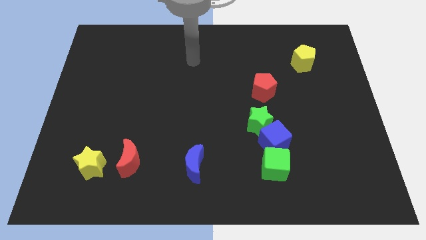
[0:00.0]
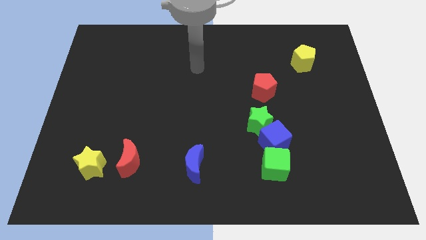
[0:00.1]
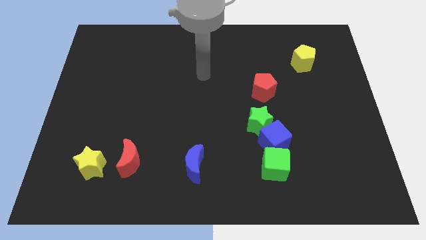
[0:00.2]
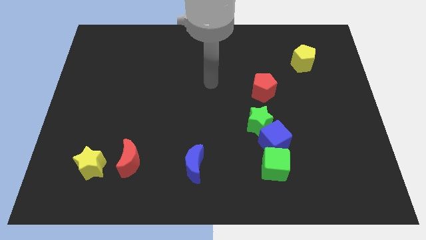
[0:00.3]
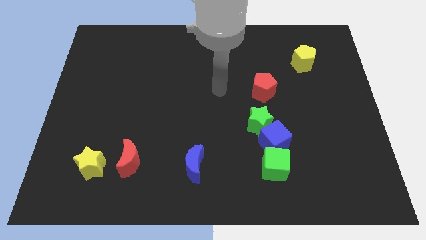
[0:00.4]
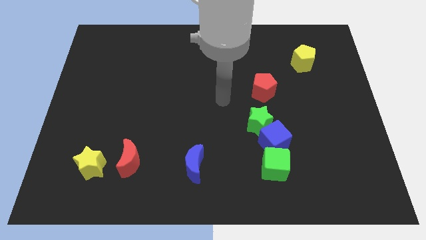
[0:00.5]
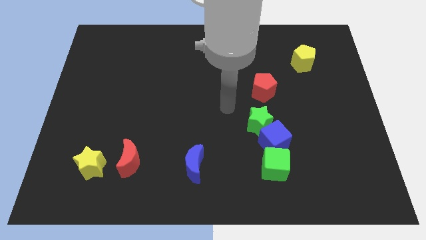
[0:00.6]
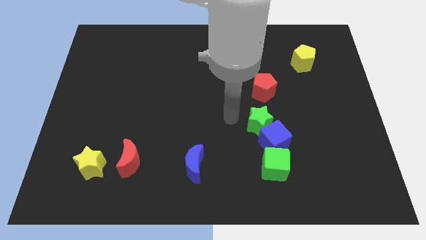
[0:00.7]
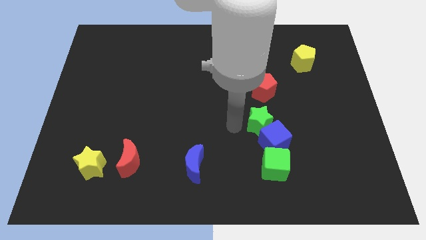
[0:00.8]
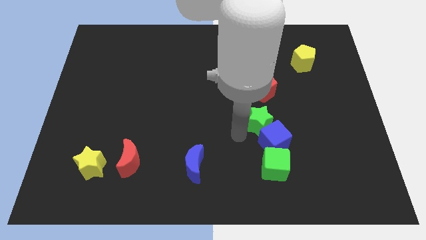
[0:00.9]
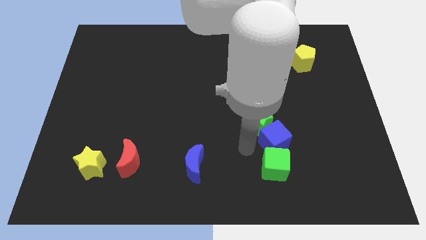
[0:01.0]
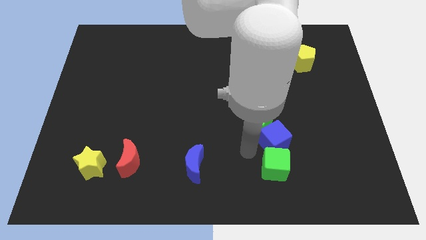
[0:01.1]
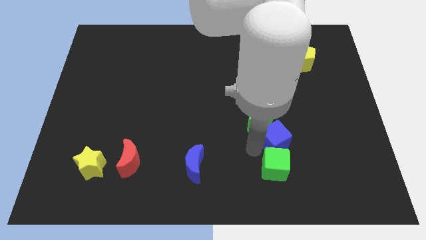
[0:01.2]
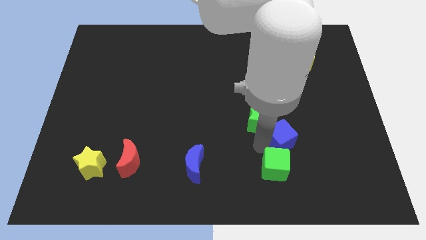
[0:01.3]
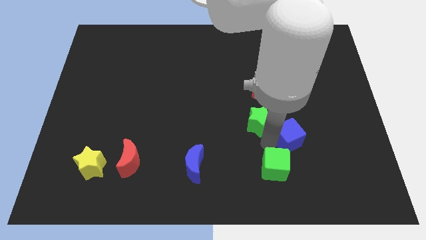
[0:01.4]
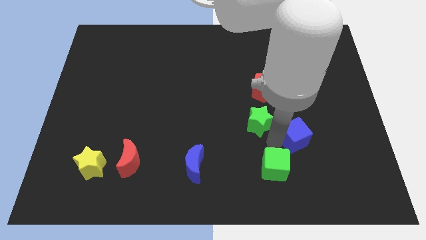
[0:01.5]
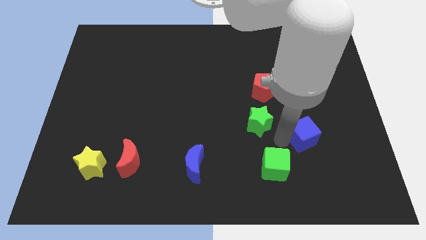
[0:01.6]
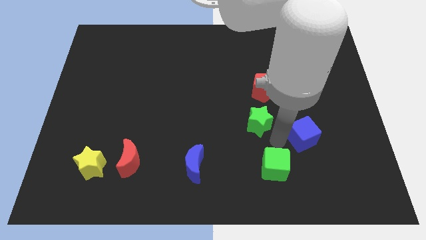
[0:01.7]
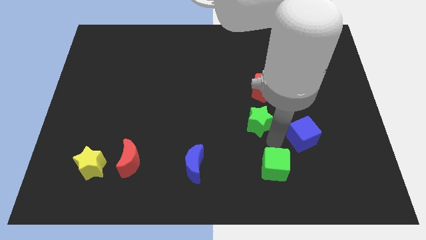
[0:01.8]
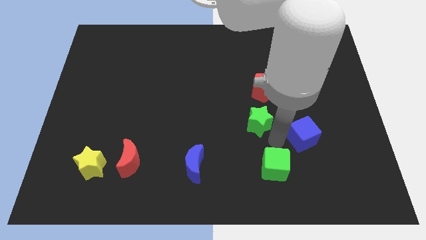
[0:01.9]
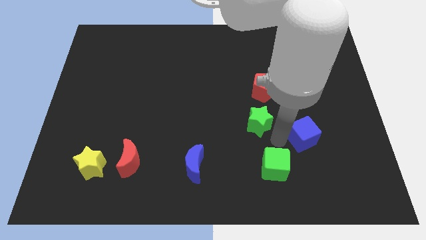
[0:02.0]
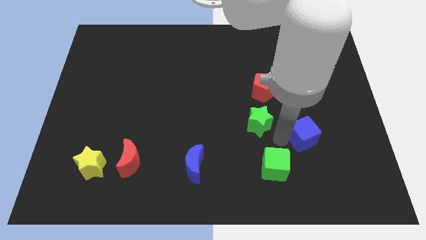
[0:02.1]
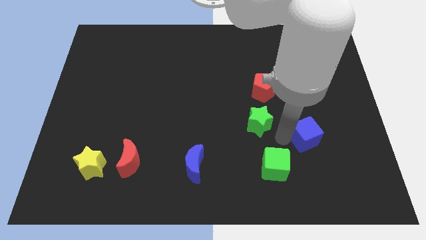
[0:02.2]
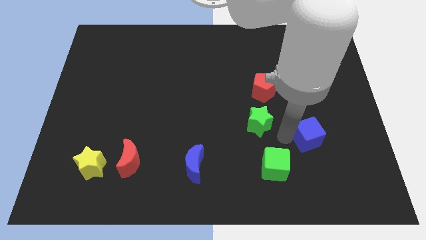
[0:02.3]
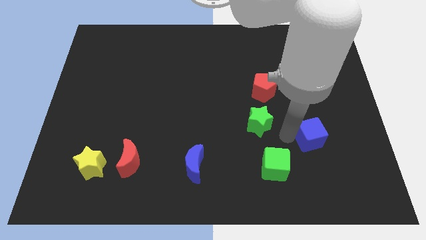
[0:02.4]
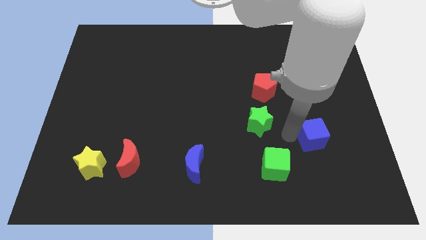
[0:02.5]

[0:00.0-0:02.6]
pull the blue cube apart from the green star and green cube

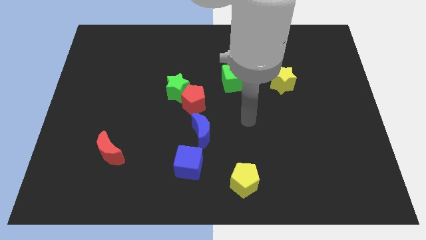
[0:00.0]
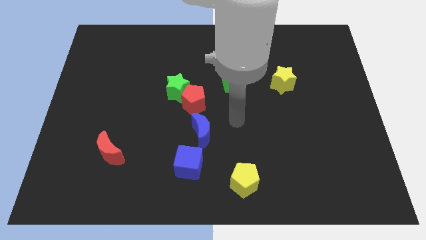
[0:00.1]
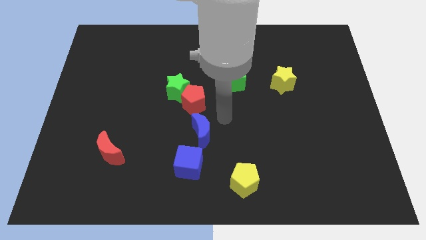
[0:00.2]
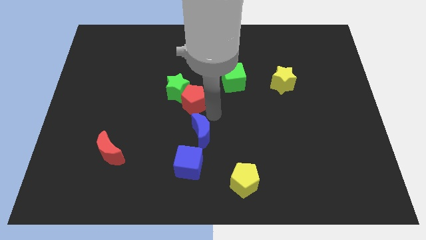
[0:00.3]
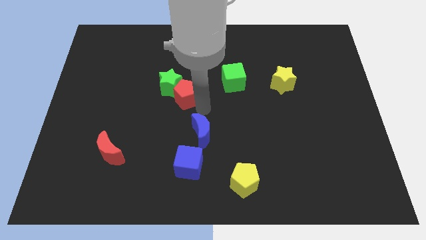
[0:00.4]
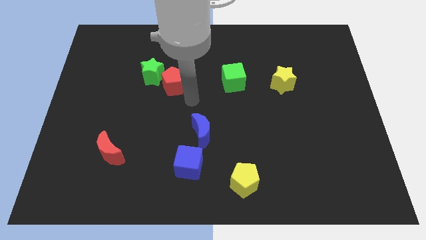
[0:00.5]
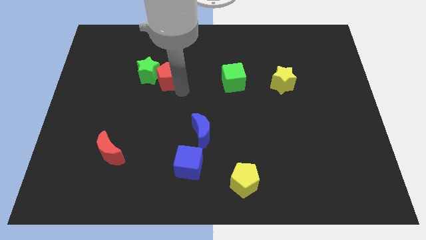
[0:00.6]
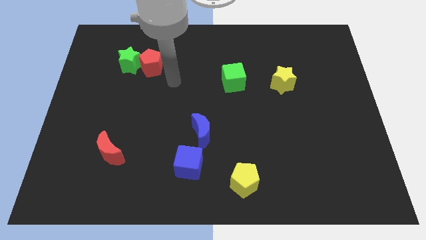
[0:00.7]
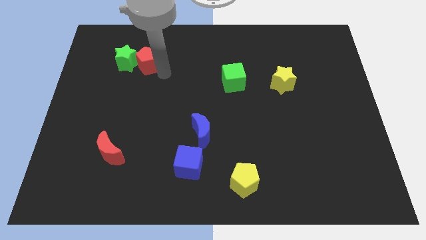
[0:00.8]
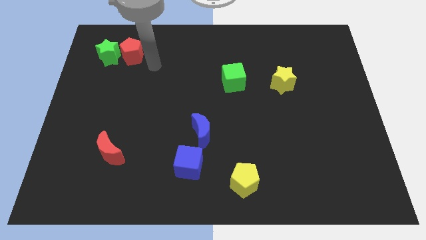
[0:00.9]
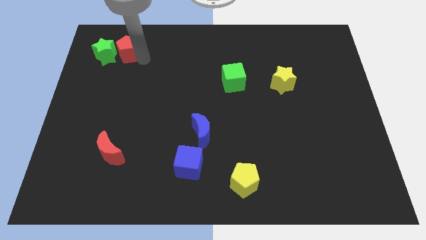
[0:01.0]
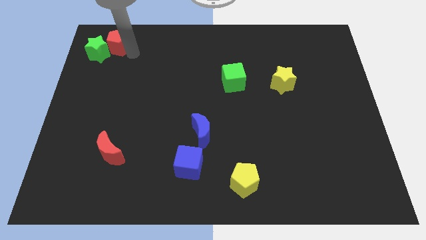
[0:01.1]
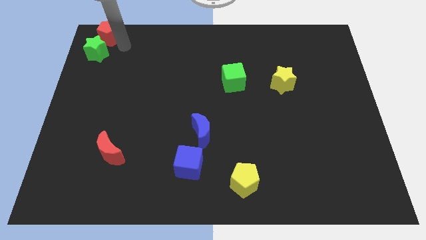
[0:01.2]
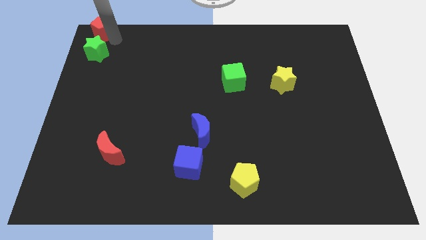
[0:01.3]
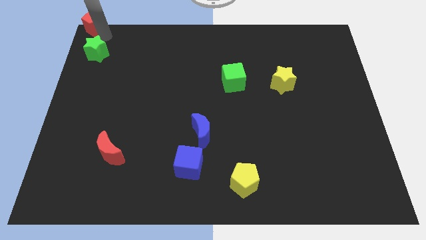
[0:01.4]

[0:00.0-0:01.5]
separate the green star from the red pentagon

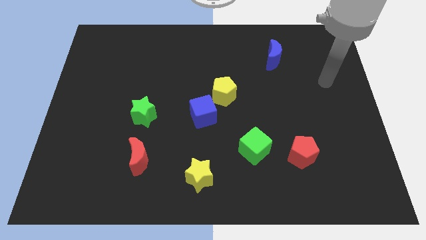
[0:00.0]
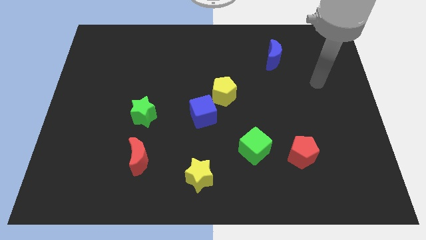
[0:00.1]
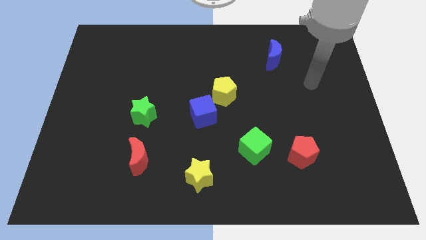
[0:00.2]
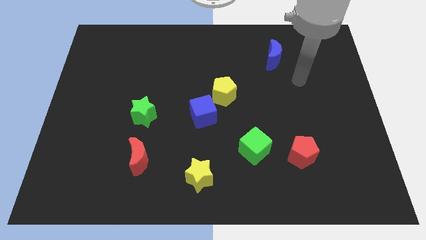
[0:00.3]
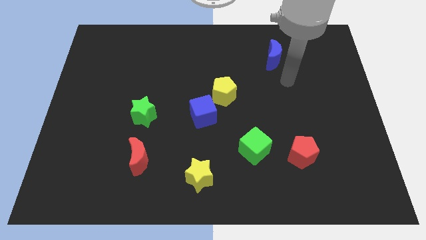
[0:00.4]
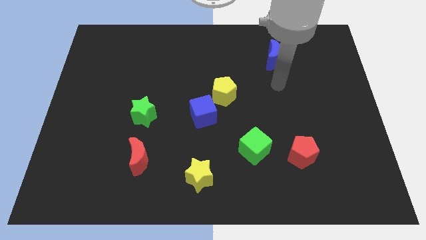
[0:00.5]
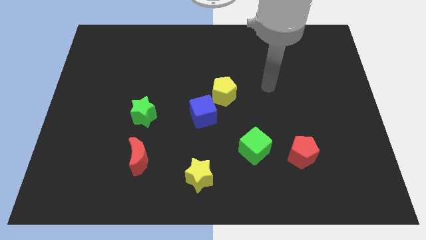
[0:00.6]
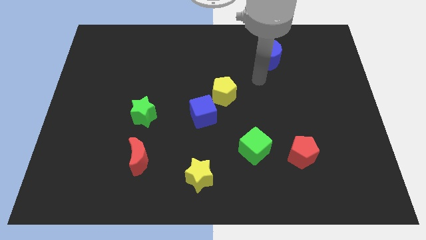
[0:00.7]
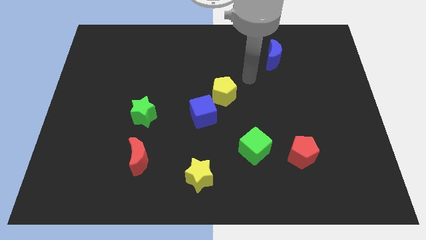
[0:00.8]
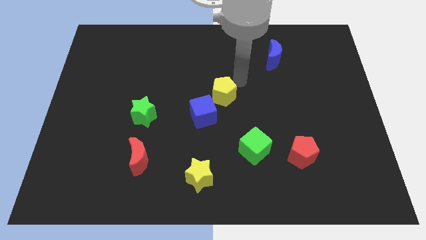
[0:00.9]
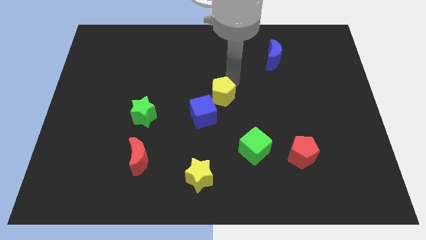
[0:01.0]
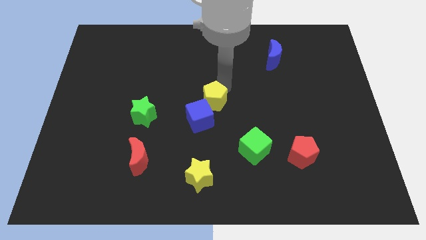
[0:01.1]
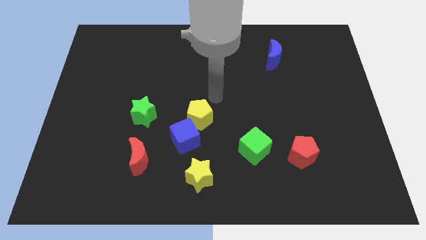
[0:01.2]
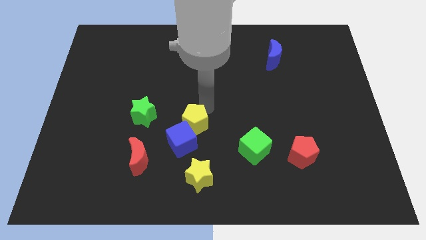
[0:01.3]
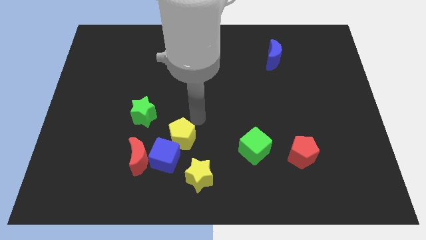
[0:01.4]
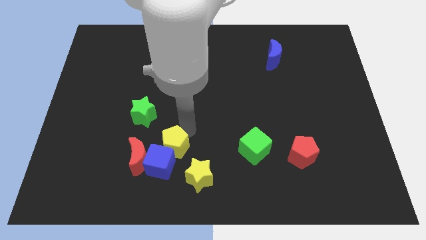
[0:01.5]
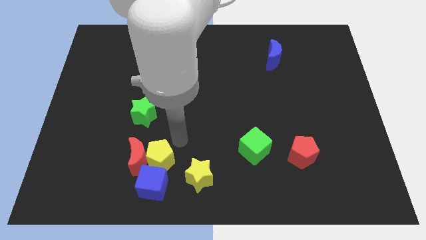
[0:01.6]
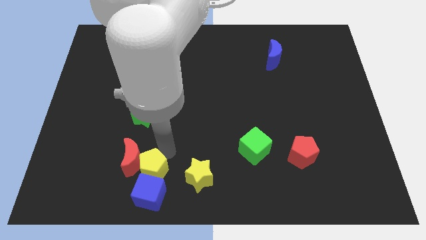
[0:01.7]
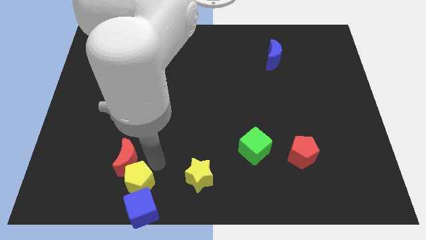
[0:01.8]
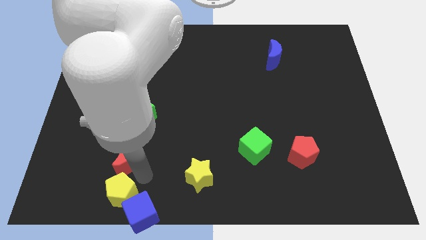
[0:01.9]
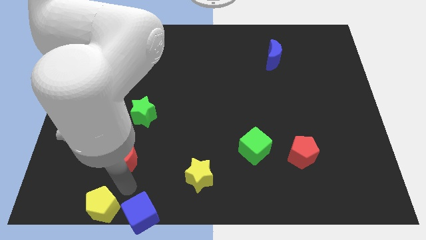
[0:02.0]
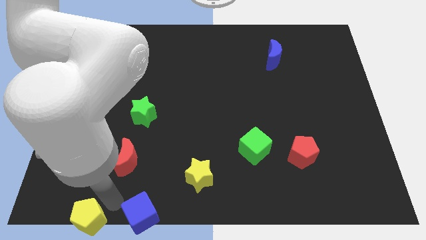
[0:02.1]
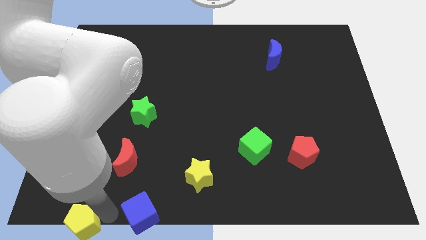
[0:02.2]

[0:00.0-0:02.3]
move the blue cube away from the yellow pentagon

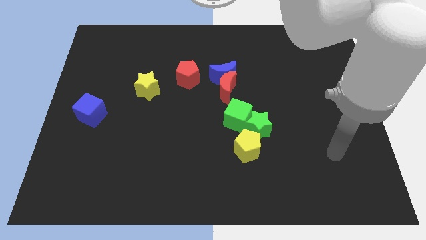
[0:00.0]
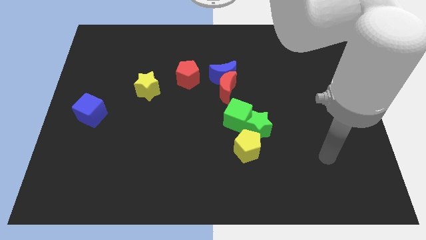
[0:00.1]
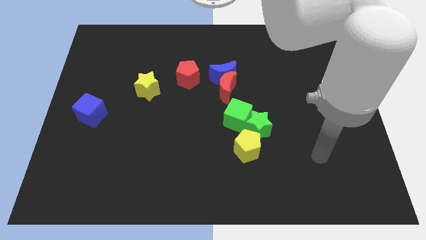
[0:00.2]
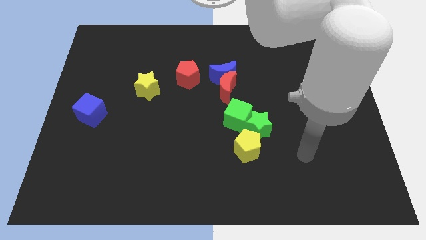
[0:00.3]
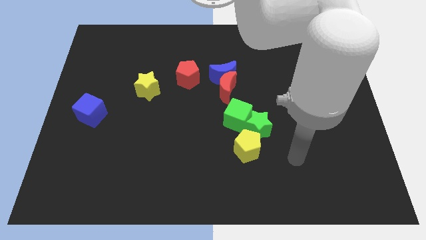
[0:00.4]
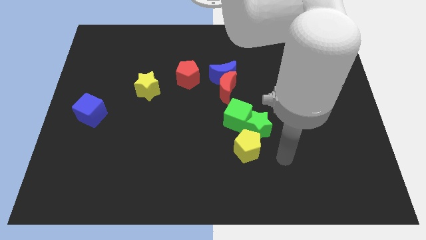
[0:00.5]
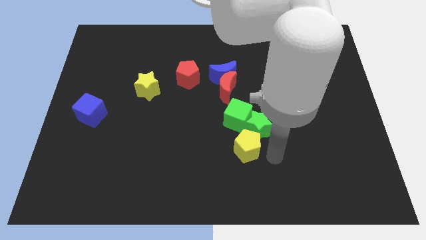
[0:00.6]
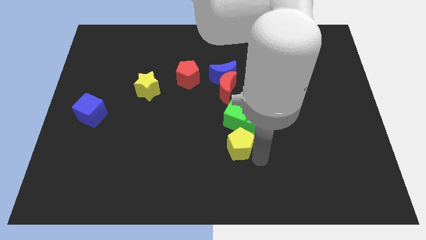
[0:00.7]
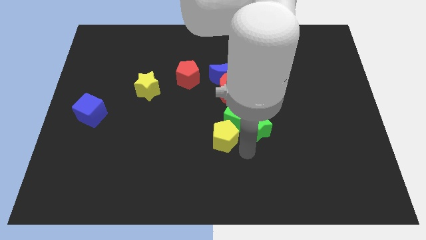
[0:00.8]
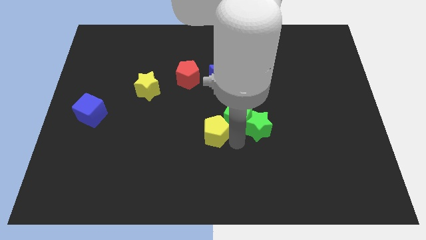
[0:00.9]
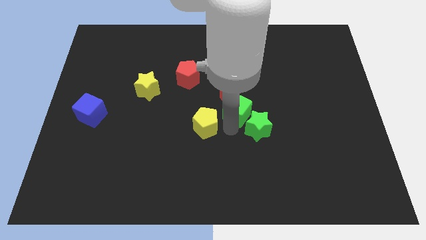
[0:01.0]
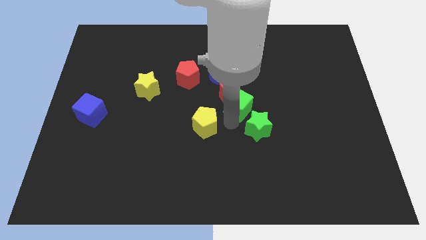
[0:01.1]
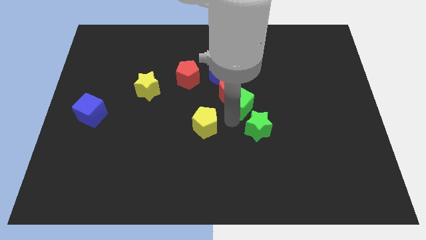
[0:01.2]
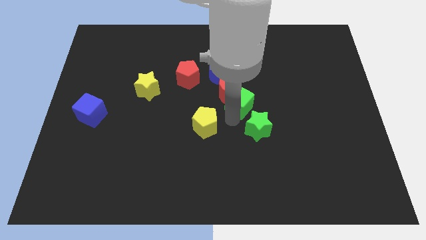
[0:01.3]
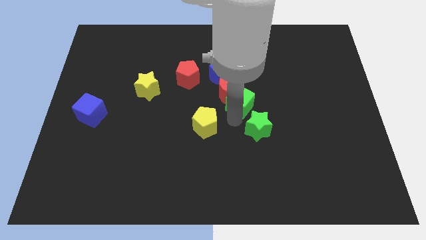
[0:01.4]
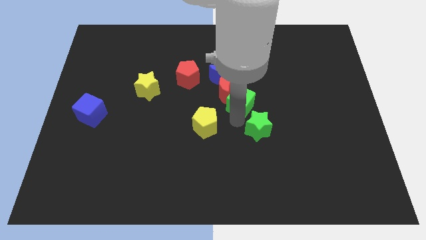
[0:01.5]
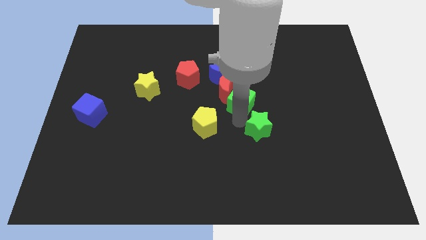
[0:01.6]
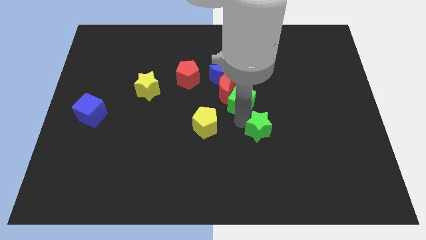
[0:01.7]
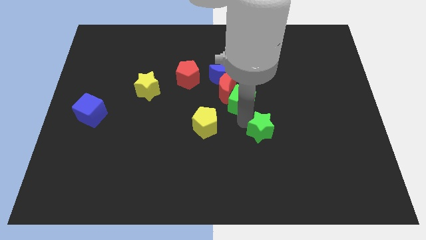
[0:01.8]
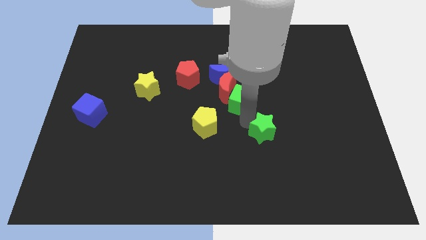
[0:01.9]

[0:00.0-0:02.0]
pull the green star apart from the green cube and yellow pentagon

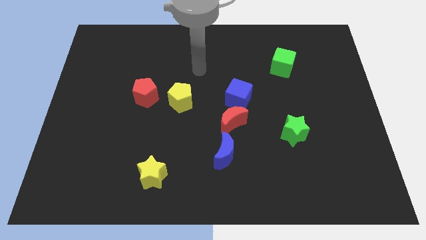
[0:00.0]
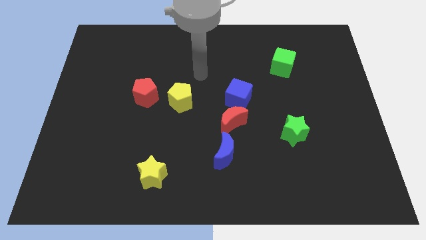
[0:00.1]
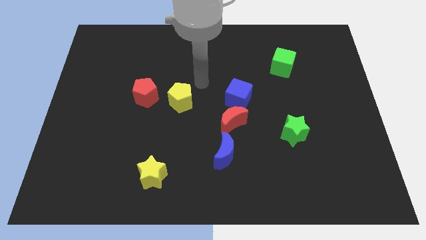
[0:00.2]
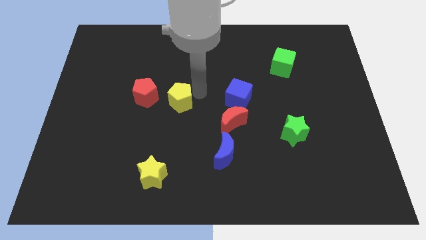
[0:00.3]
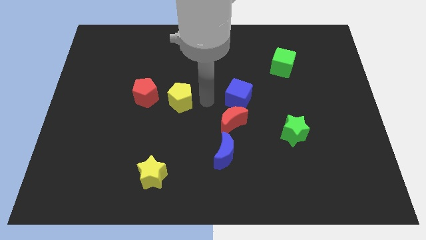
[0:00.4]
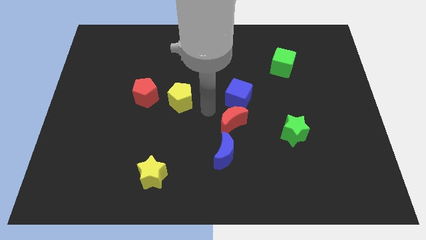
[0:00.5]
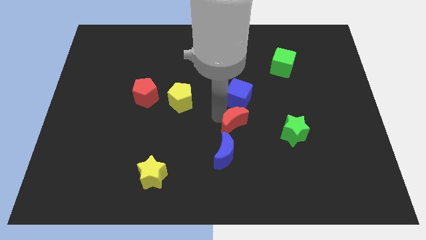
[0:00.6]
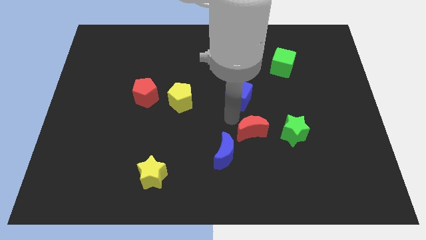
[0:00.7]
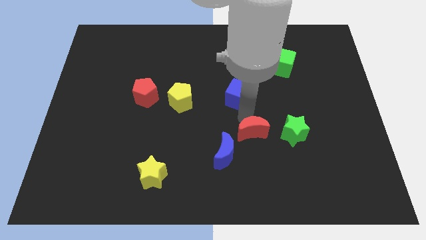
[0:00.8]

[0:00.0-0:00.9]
move the blue cube away from the red moon

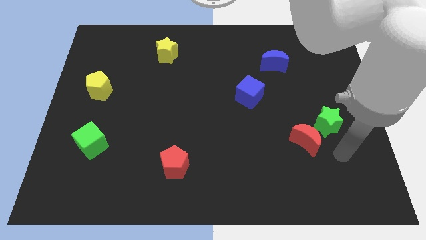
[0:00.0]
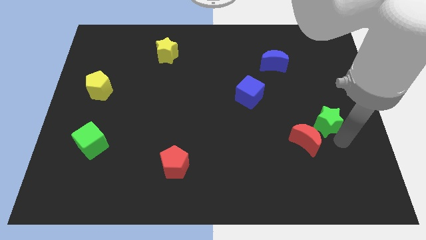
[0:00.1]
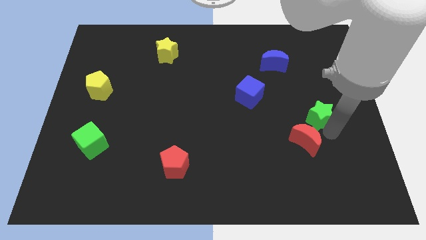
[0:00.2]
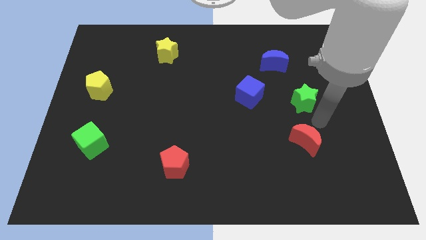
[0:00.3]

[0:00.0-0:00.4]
move the red moon away from the green star
